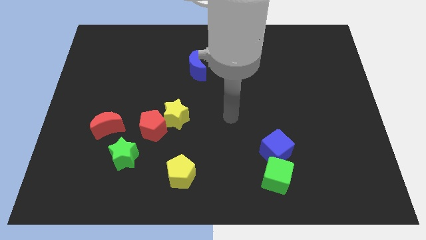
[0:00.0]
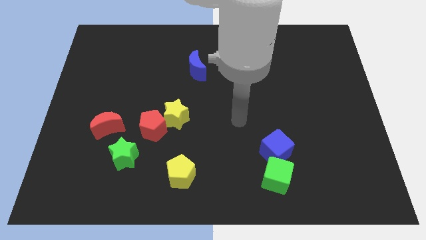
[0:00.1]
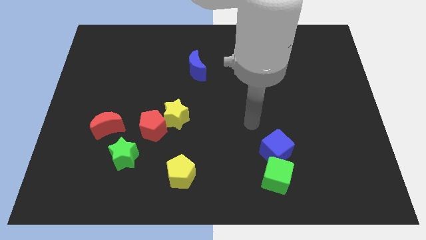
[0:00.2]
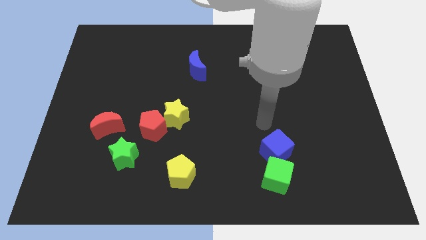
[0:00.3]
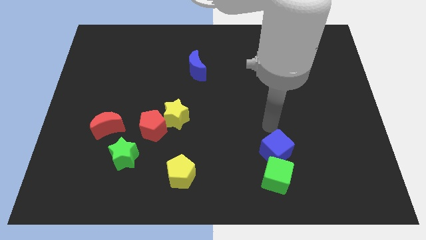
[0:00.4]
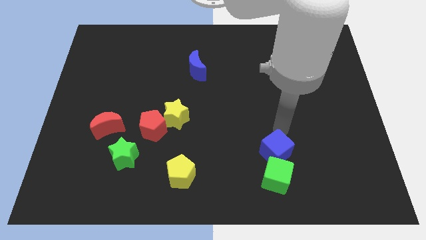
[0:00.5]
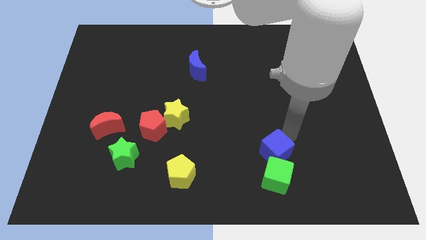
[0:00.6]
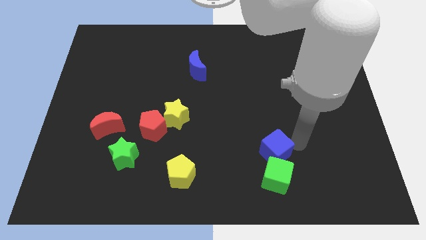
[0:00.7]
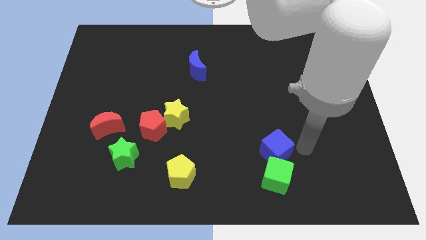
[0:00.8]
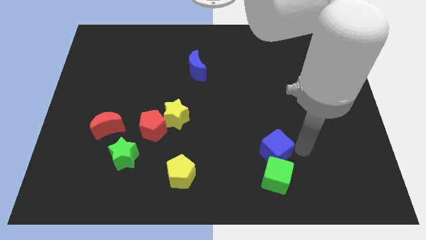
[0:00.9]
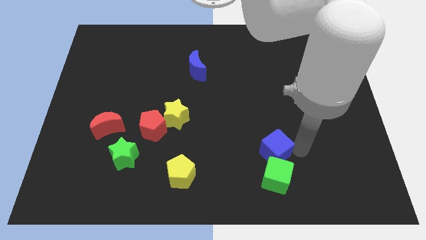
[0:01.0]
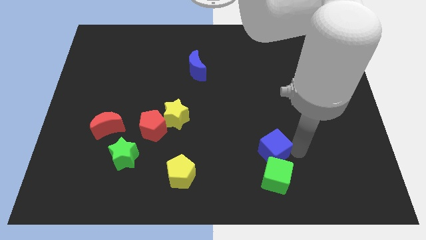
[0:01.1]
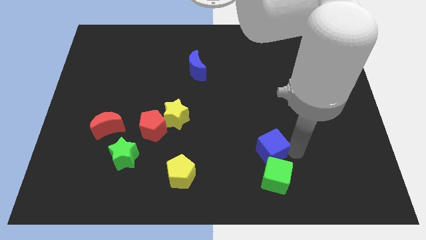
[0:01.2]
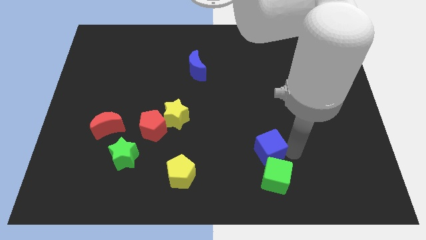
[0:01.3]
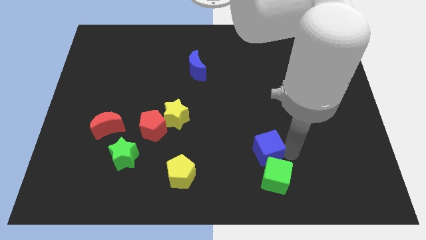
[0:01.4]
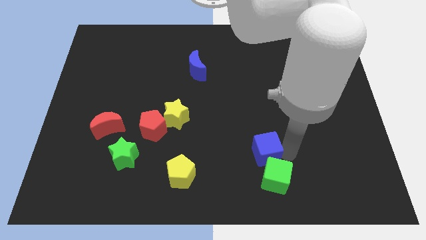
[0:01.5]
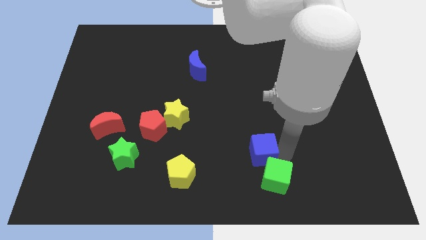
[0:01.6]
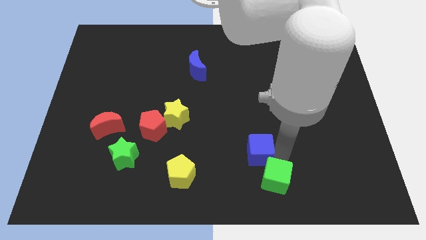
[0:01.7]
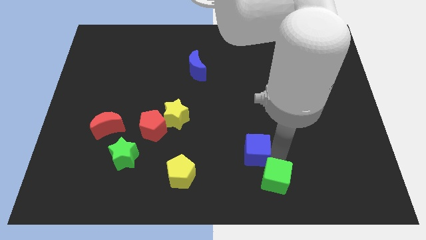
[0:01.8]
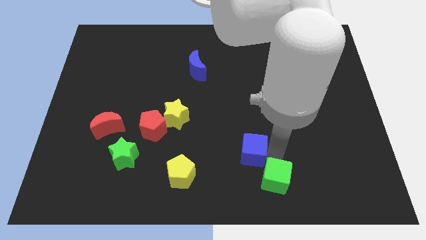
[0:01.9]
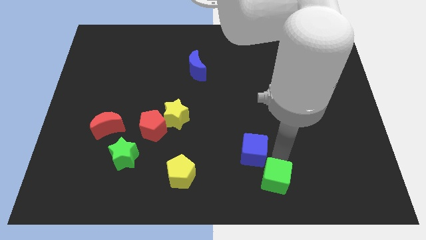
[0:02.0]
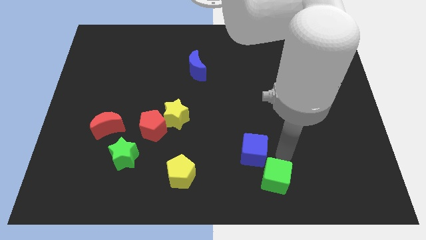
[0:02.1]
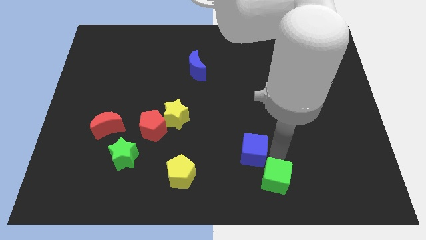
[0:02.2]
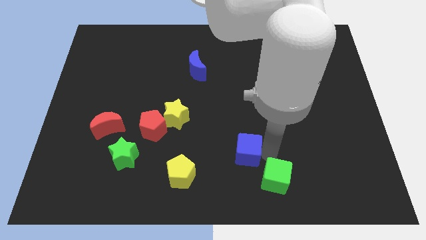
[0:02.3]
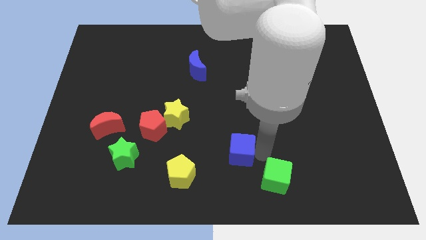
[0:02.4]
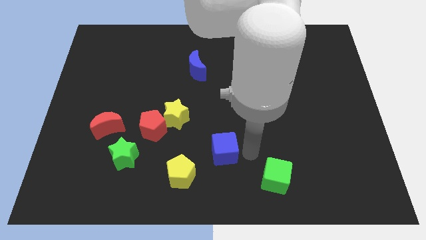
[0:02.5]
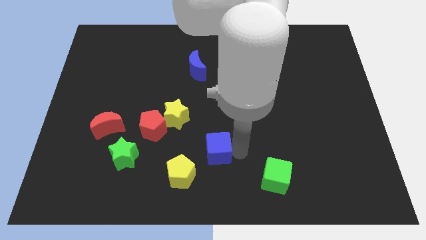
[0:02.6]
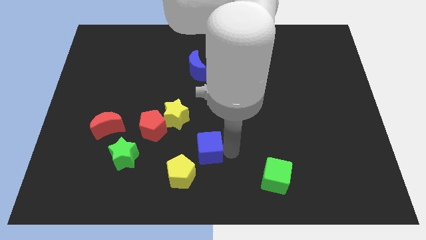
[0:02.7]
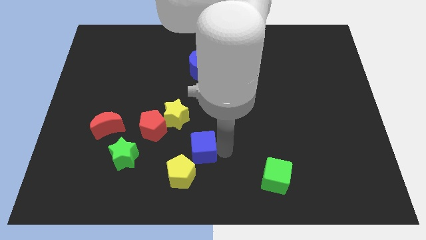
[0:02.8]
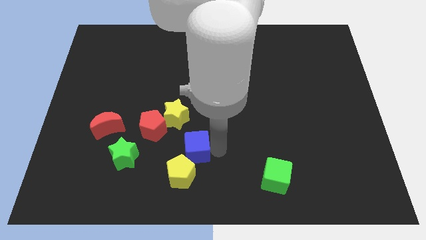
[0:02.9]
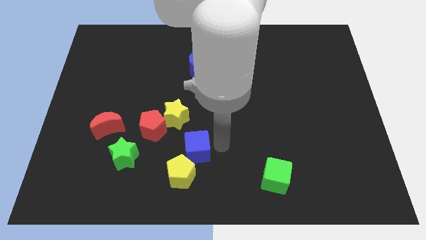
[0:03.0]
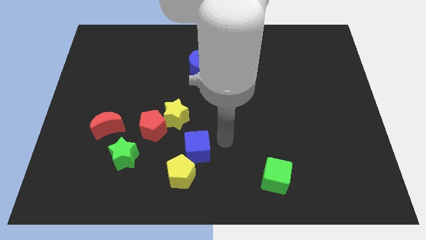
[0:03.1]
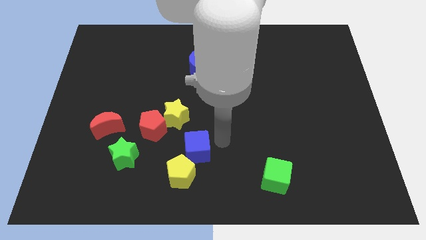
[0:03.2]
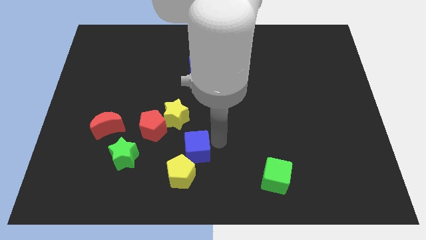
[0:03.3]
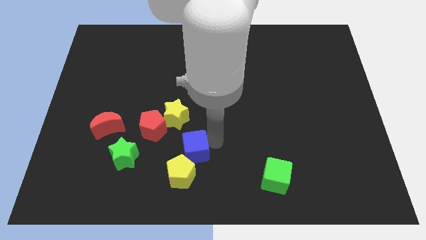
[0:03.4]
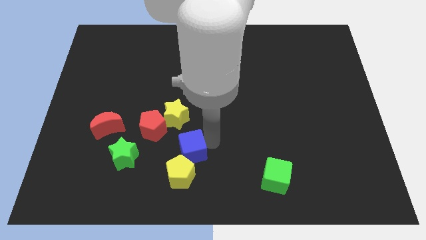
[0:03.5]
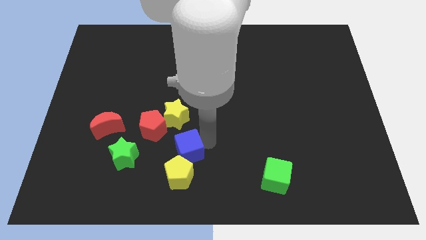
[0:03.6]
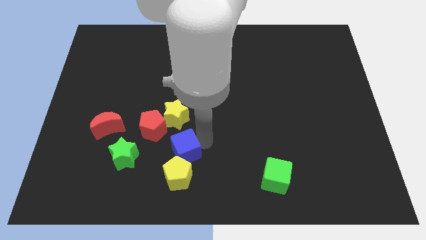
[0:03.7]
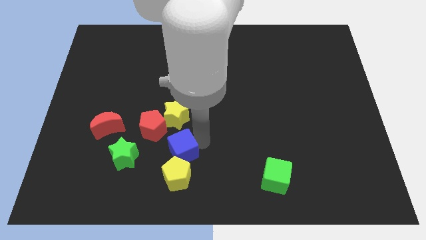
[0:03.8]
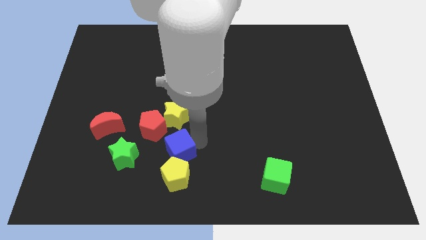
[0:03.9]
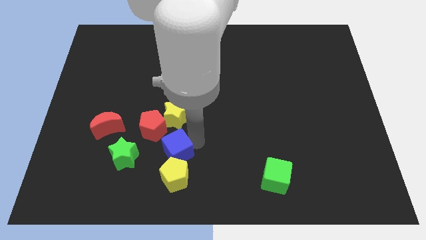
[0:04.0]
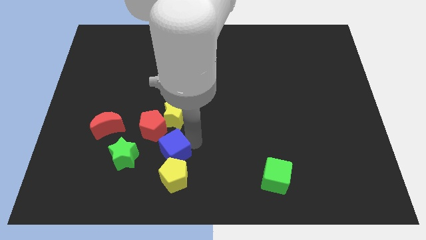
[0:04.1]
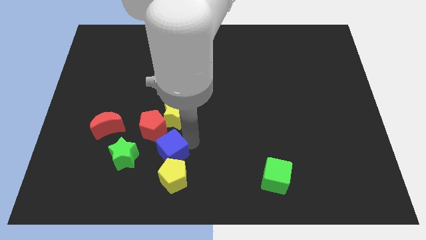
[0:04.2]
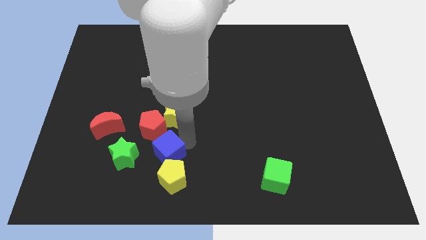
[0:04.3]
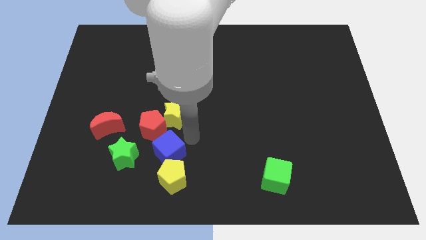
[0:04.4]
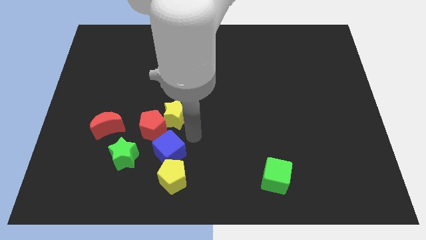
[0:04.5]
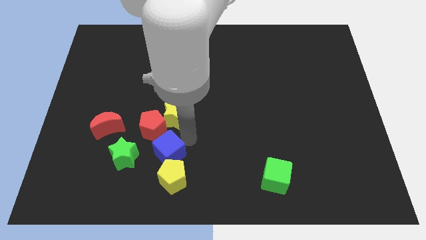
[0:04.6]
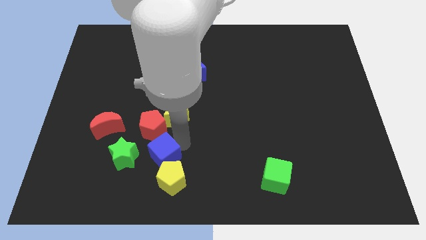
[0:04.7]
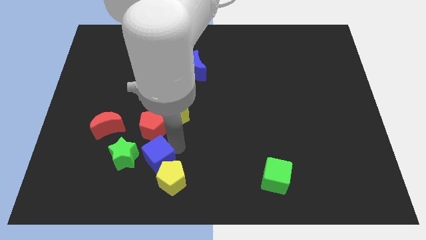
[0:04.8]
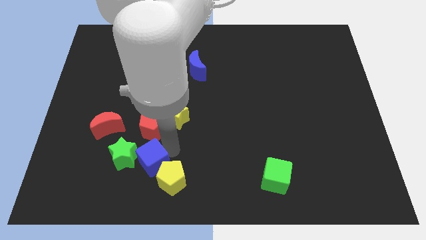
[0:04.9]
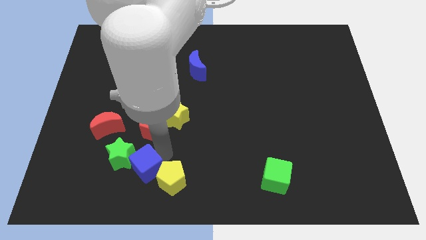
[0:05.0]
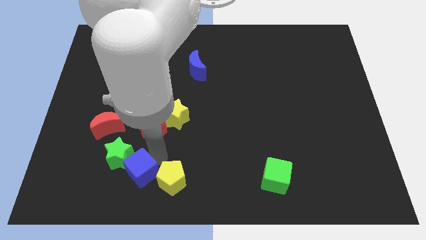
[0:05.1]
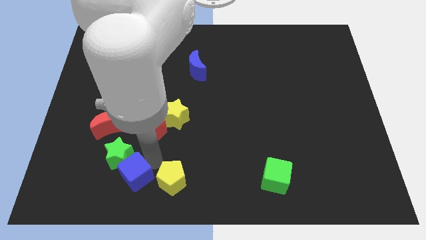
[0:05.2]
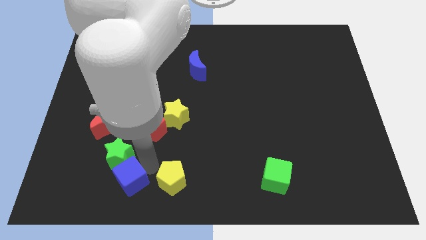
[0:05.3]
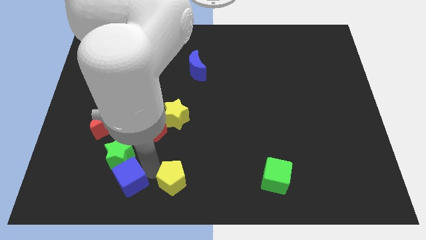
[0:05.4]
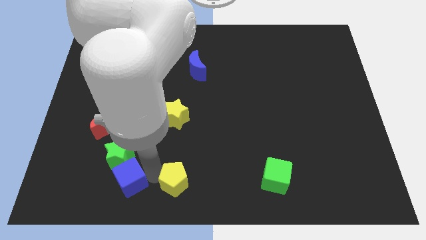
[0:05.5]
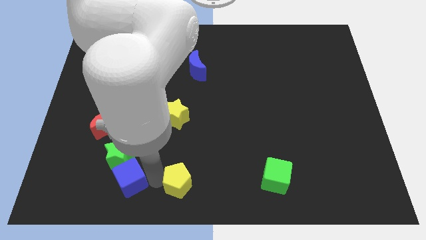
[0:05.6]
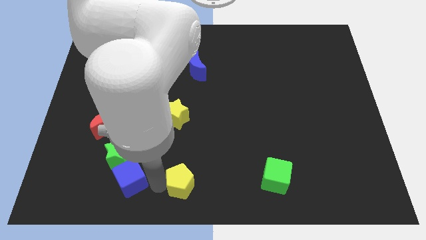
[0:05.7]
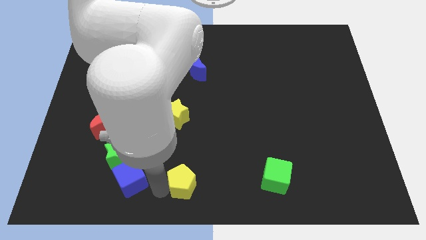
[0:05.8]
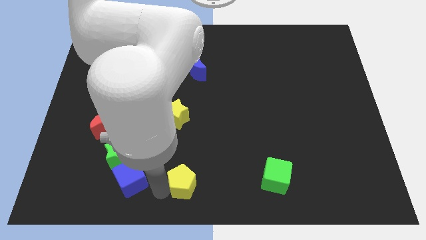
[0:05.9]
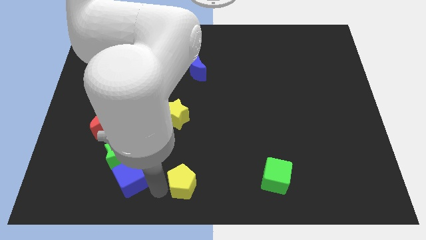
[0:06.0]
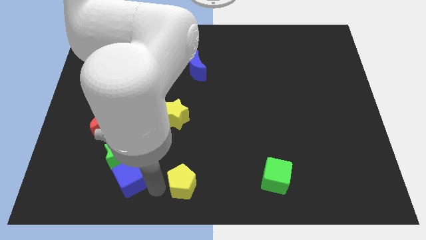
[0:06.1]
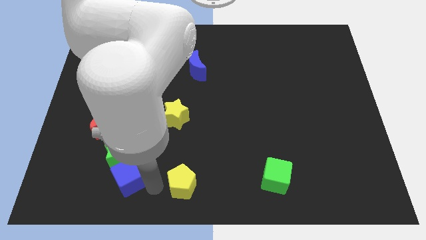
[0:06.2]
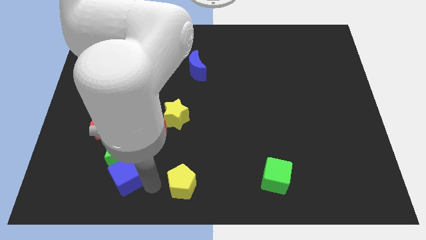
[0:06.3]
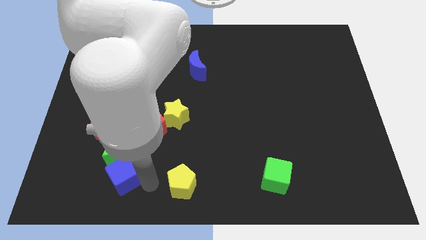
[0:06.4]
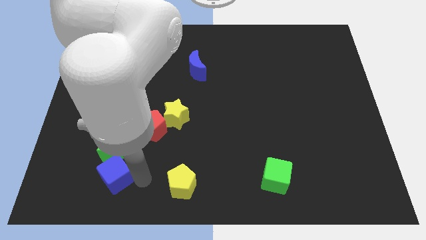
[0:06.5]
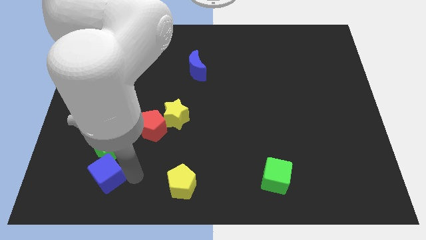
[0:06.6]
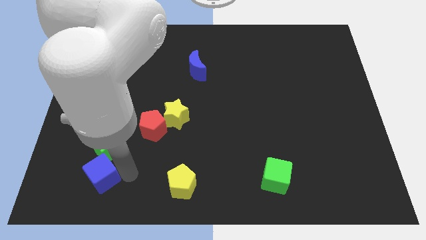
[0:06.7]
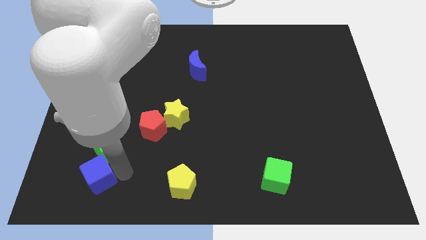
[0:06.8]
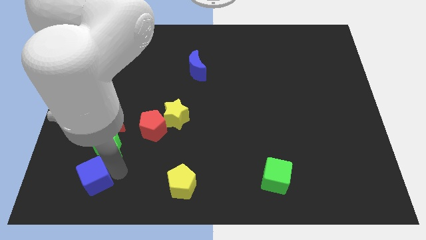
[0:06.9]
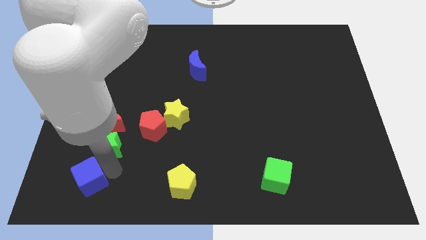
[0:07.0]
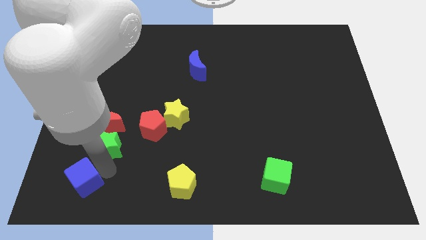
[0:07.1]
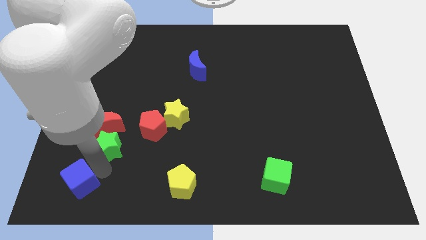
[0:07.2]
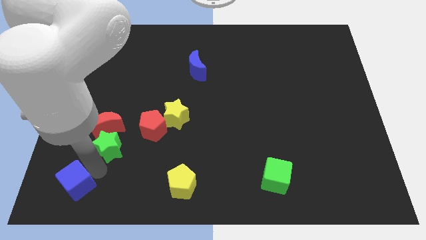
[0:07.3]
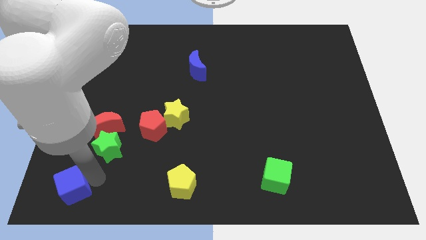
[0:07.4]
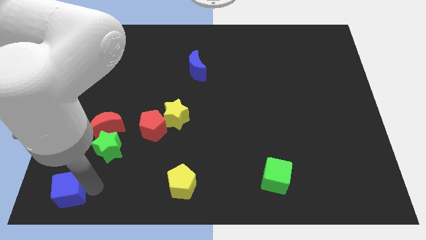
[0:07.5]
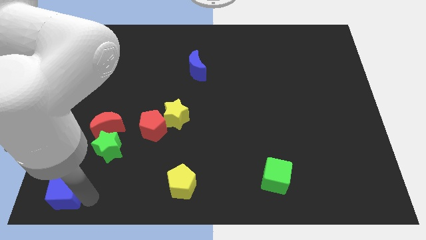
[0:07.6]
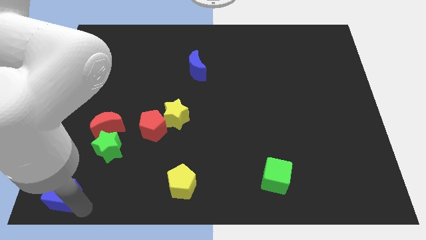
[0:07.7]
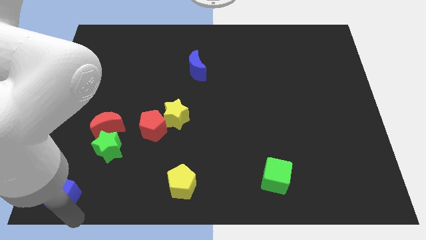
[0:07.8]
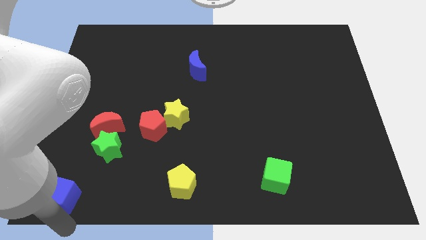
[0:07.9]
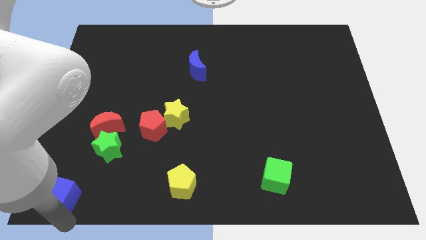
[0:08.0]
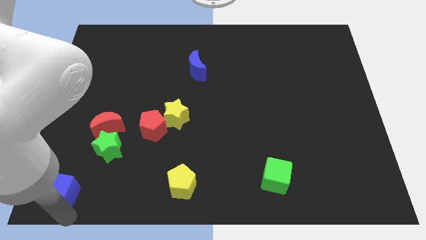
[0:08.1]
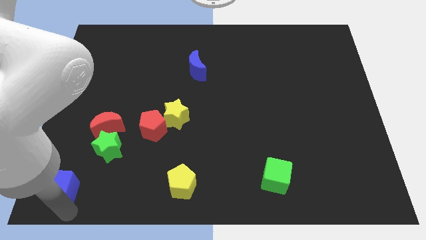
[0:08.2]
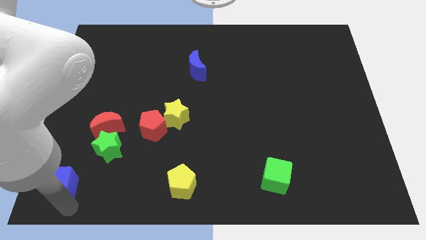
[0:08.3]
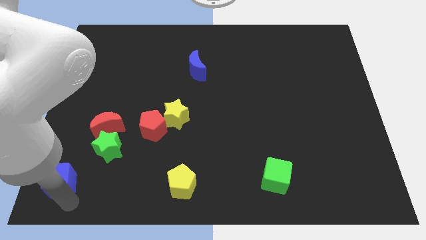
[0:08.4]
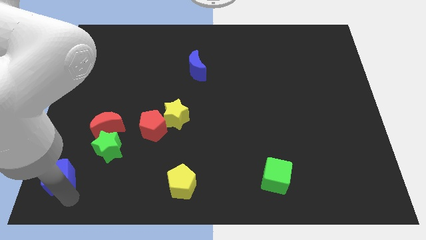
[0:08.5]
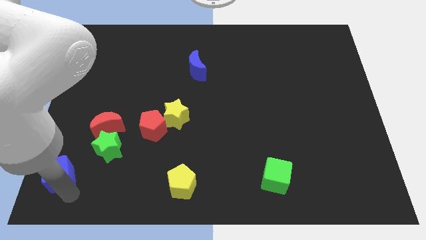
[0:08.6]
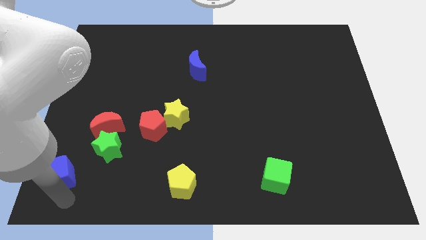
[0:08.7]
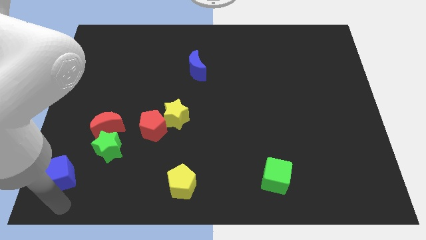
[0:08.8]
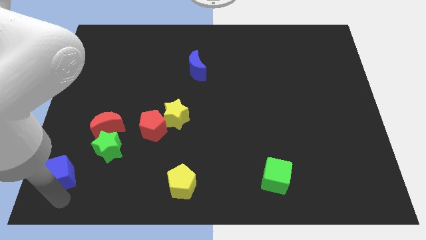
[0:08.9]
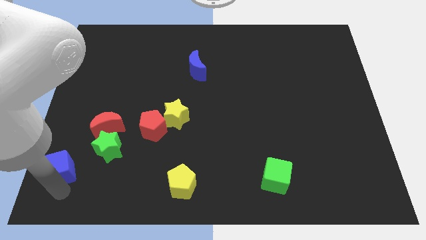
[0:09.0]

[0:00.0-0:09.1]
put the blue cube left of the green star
